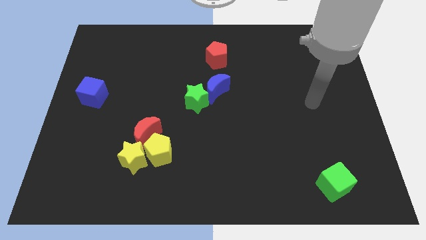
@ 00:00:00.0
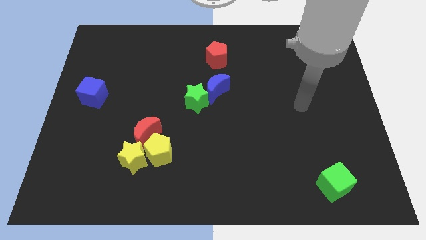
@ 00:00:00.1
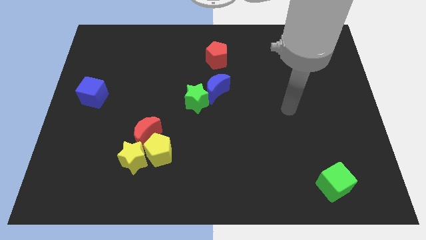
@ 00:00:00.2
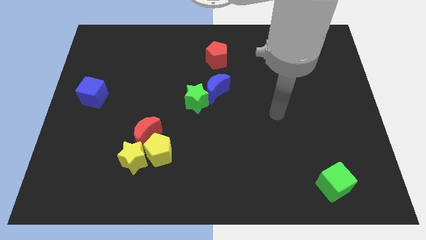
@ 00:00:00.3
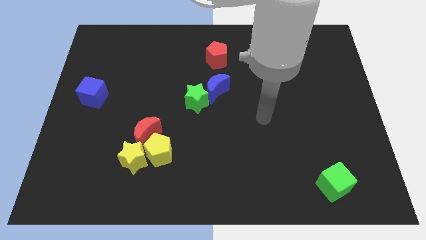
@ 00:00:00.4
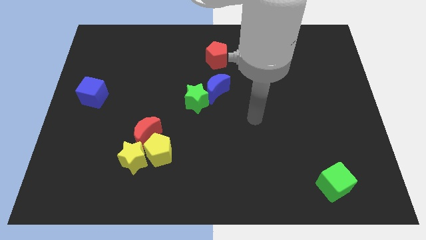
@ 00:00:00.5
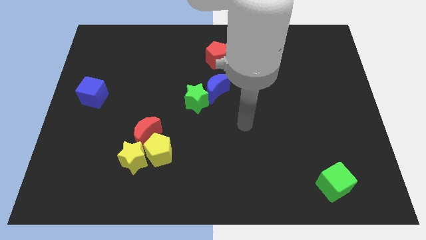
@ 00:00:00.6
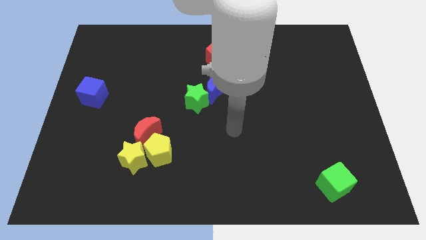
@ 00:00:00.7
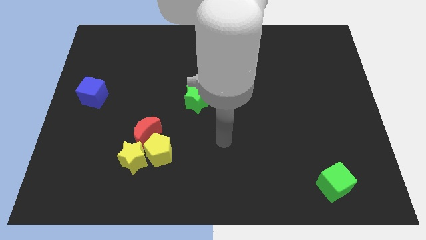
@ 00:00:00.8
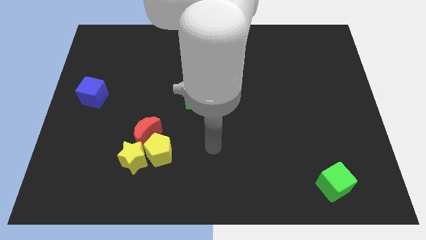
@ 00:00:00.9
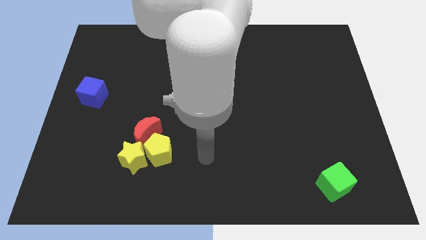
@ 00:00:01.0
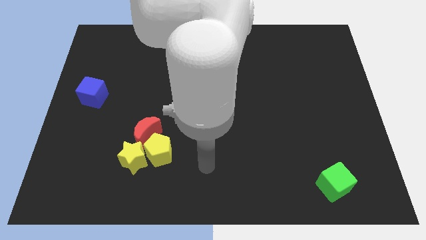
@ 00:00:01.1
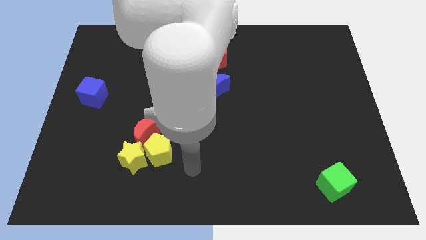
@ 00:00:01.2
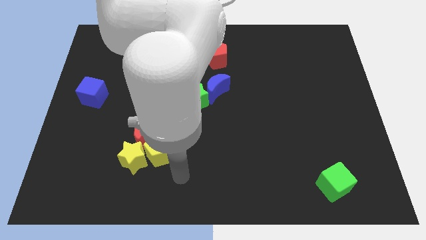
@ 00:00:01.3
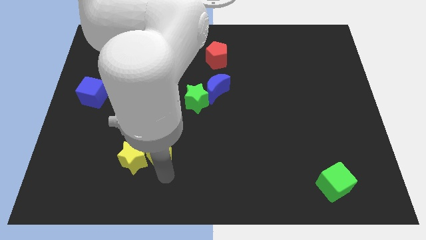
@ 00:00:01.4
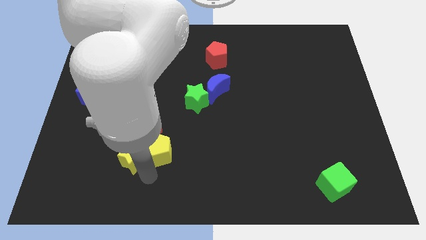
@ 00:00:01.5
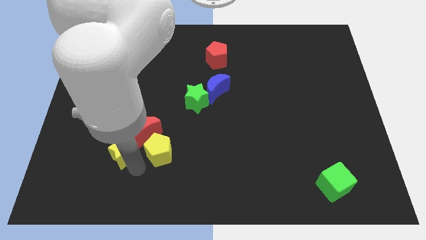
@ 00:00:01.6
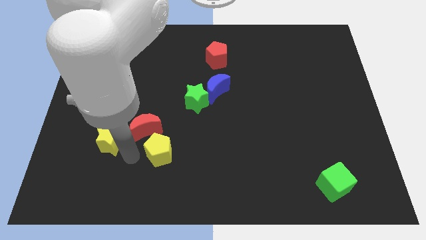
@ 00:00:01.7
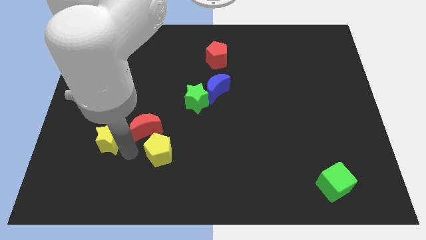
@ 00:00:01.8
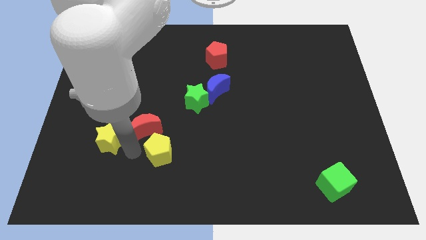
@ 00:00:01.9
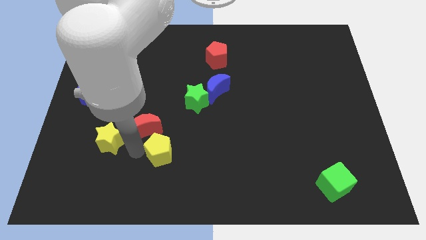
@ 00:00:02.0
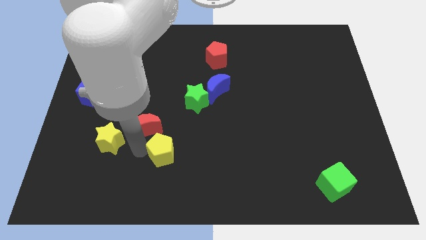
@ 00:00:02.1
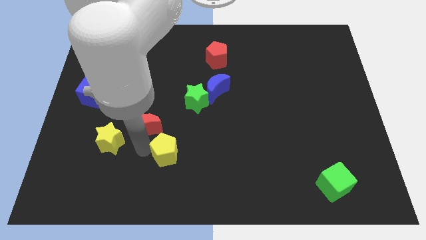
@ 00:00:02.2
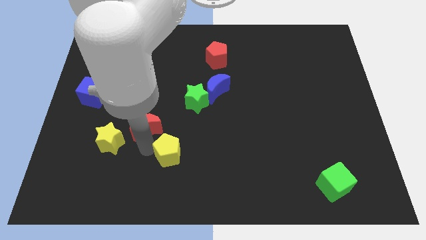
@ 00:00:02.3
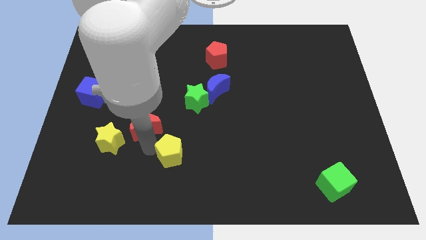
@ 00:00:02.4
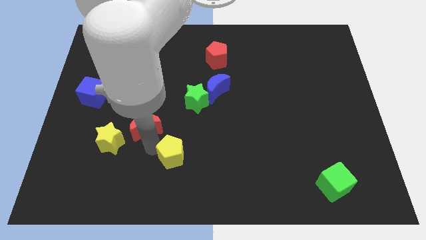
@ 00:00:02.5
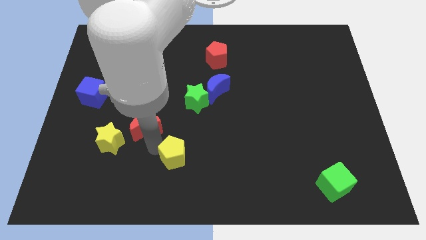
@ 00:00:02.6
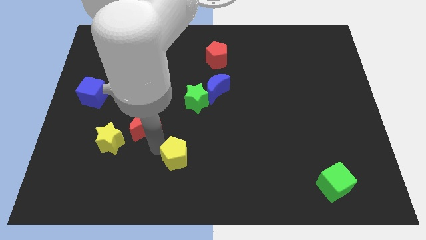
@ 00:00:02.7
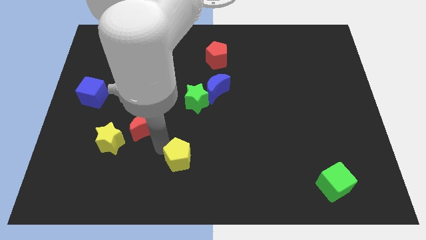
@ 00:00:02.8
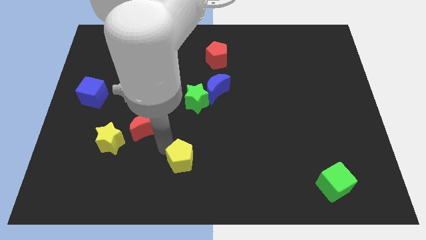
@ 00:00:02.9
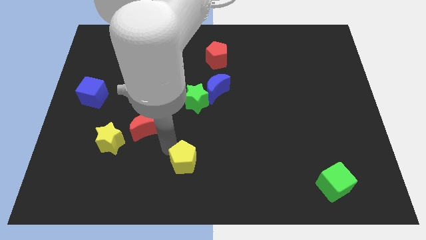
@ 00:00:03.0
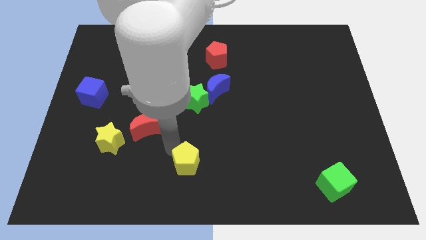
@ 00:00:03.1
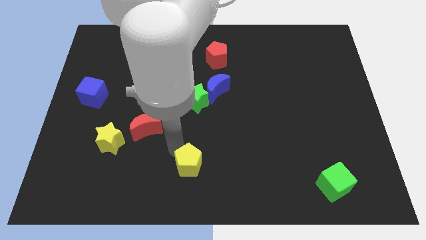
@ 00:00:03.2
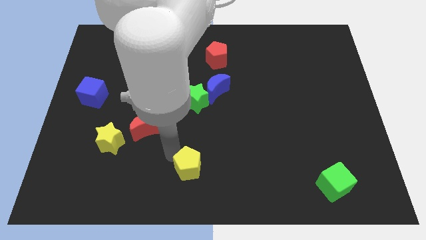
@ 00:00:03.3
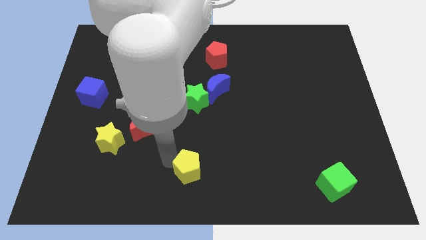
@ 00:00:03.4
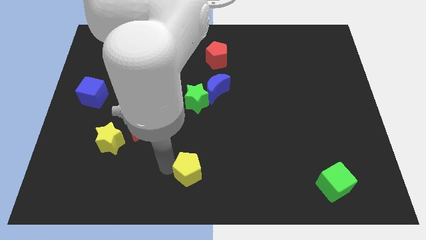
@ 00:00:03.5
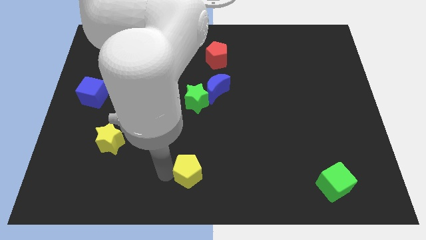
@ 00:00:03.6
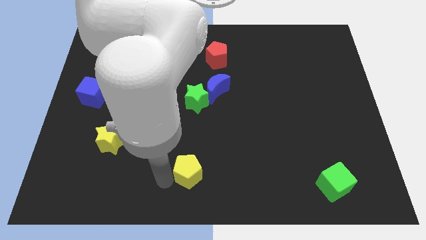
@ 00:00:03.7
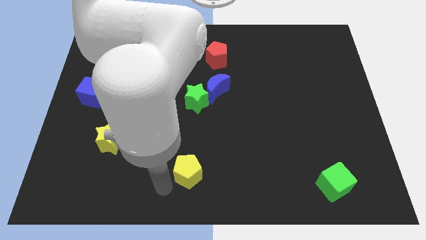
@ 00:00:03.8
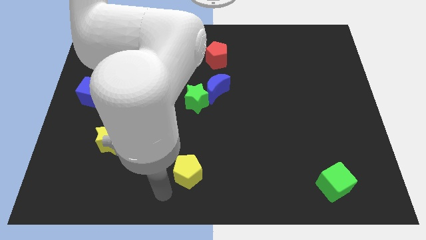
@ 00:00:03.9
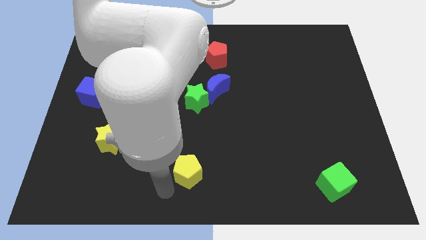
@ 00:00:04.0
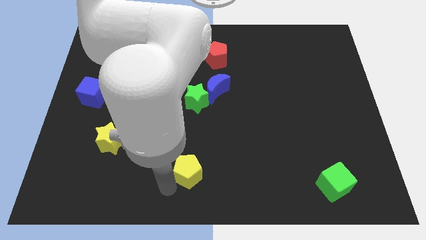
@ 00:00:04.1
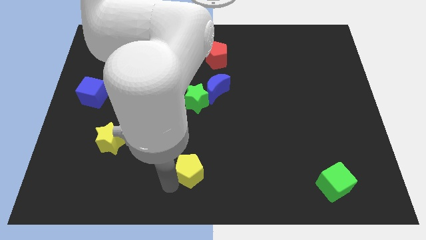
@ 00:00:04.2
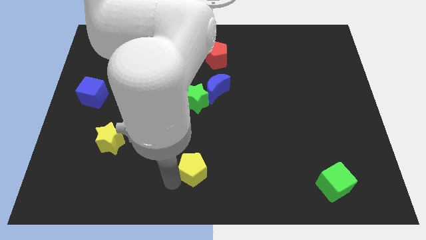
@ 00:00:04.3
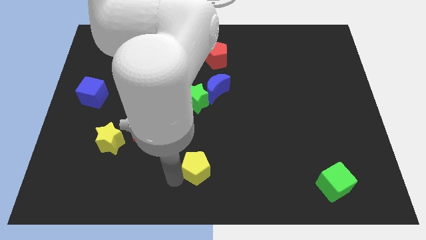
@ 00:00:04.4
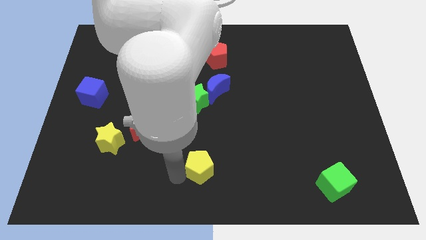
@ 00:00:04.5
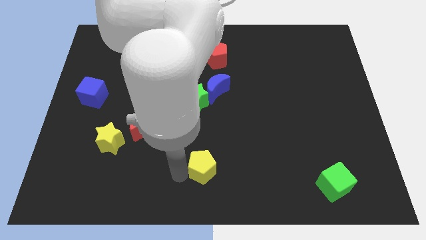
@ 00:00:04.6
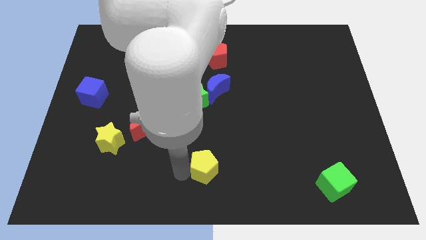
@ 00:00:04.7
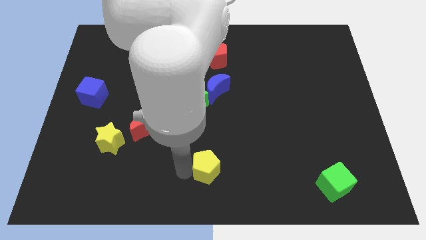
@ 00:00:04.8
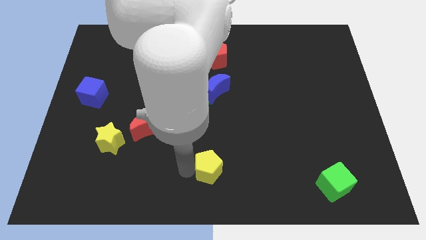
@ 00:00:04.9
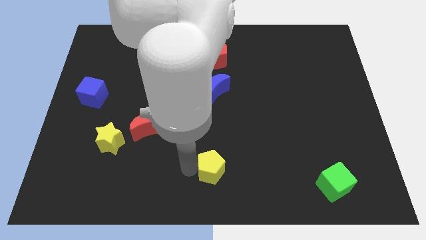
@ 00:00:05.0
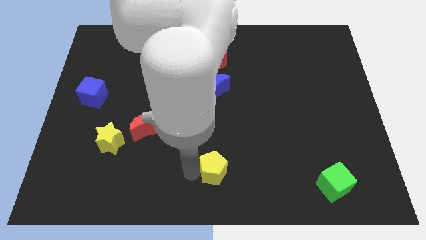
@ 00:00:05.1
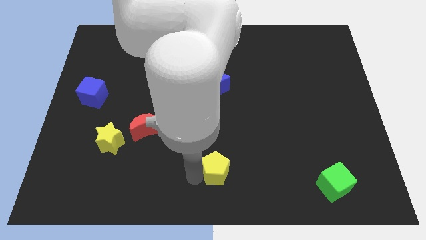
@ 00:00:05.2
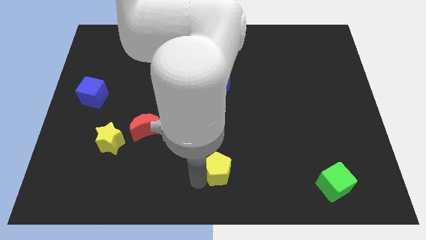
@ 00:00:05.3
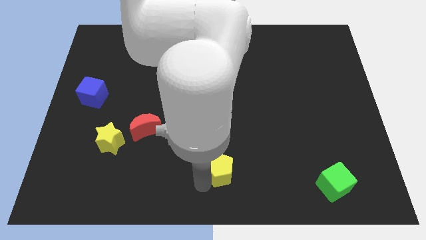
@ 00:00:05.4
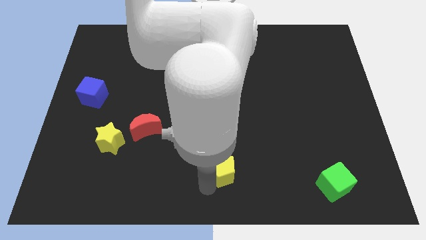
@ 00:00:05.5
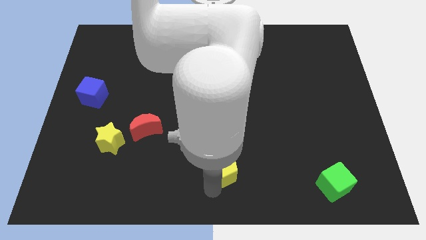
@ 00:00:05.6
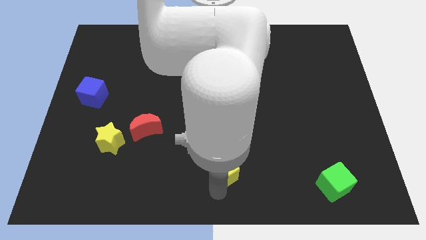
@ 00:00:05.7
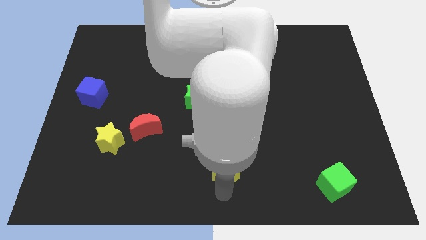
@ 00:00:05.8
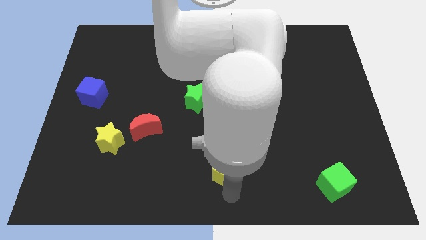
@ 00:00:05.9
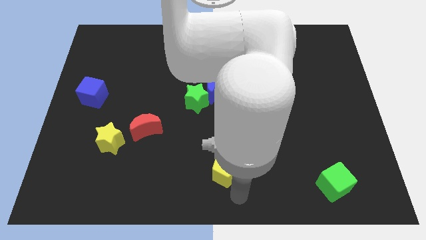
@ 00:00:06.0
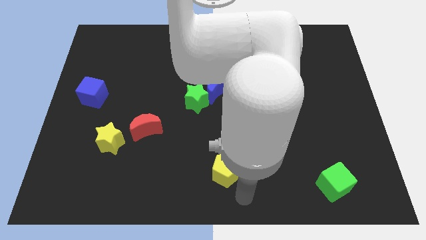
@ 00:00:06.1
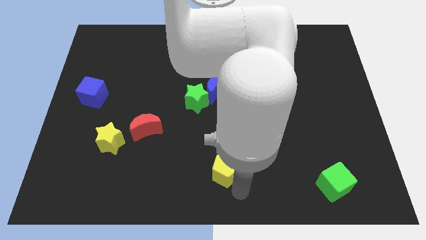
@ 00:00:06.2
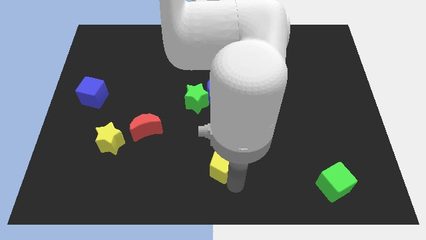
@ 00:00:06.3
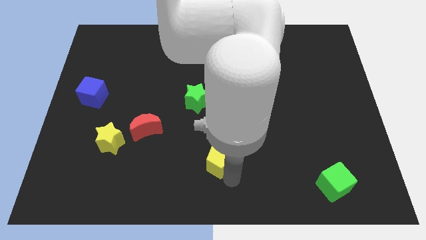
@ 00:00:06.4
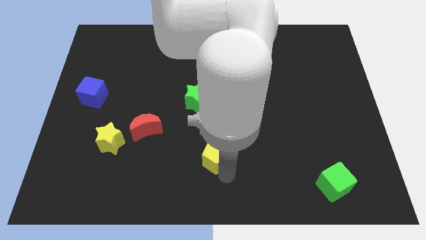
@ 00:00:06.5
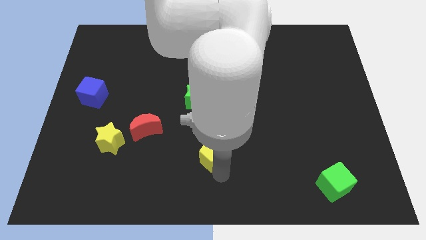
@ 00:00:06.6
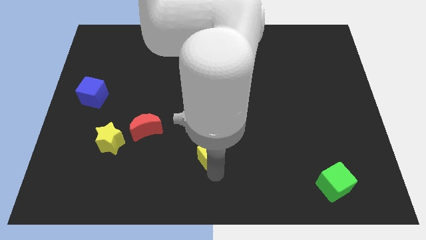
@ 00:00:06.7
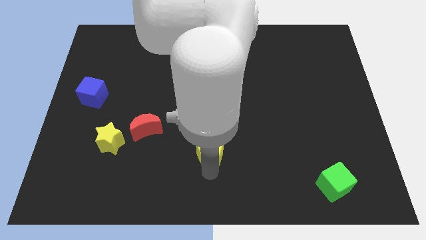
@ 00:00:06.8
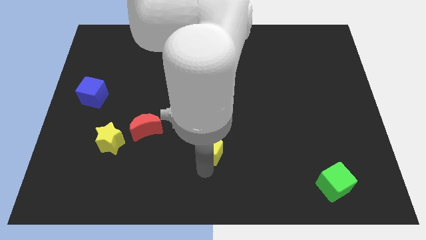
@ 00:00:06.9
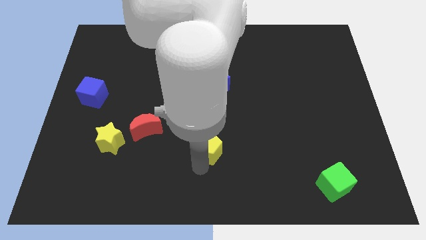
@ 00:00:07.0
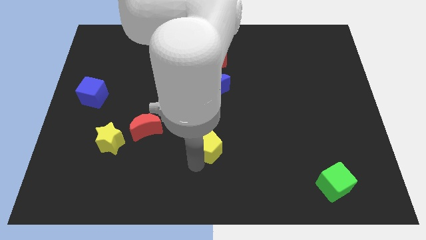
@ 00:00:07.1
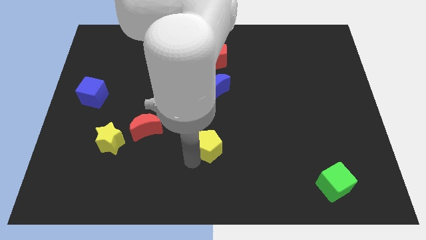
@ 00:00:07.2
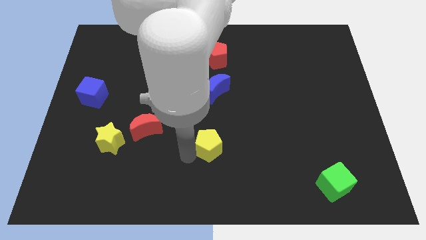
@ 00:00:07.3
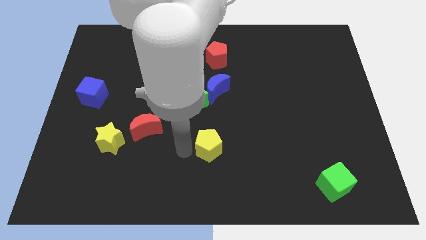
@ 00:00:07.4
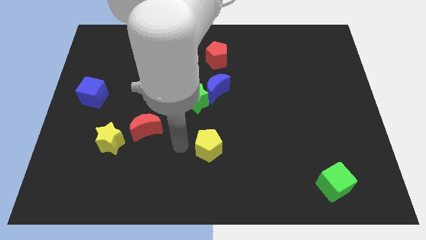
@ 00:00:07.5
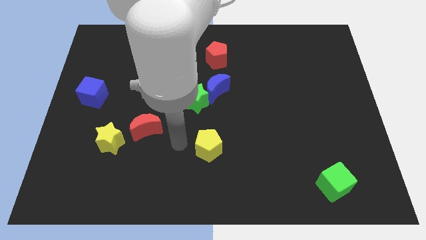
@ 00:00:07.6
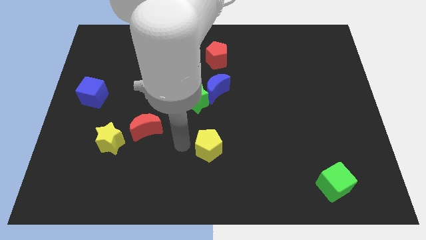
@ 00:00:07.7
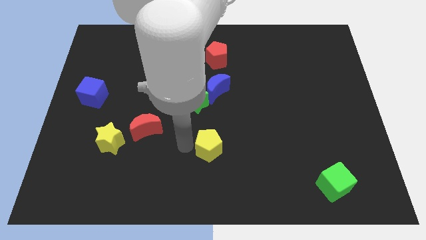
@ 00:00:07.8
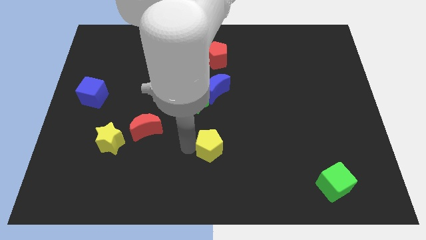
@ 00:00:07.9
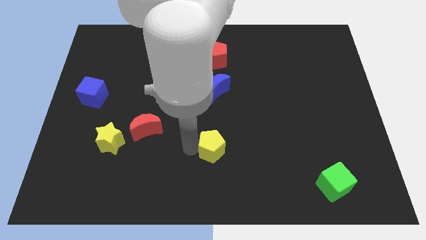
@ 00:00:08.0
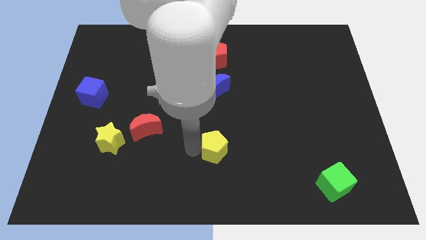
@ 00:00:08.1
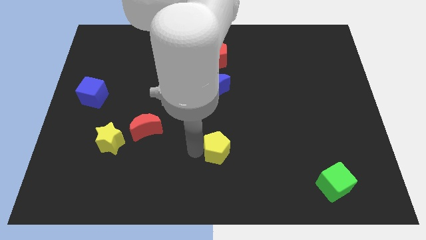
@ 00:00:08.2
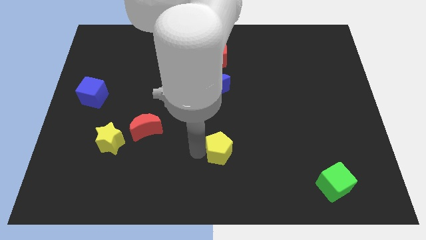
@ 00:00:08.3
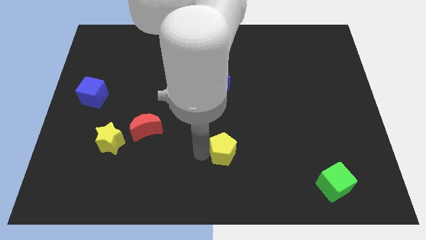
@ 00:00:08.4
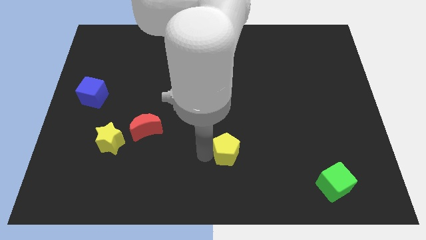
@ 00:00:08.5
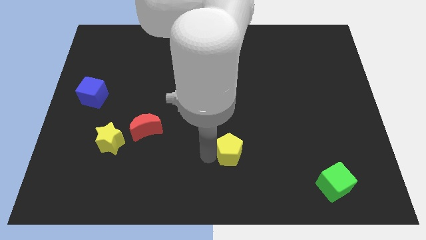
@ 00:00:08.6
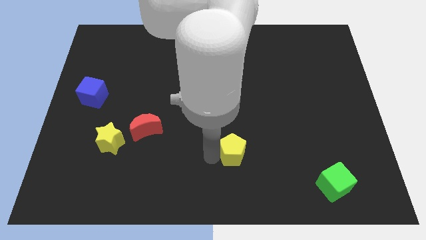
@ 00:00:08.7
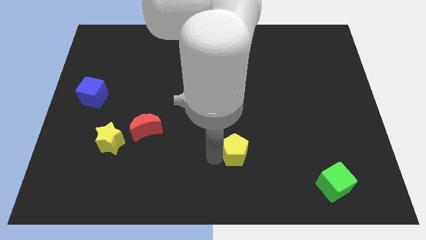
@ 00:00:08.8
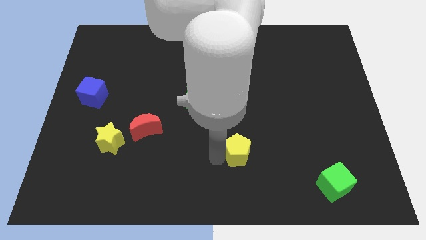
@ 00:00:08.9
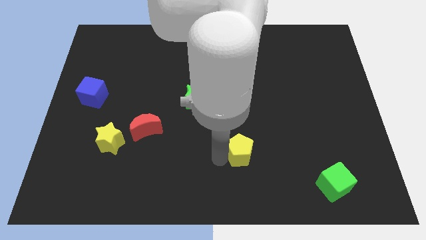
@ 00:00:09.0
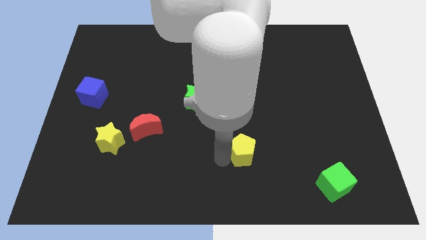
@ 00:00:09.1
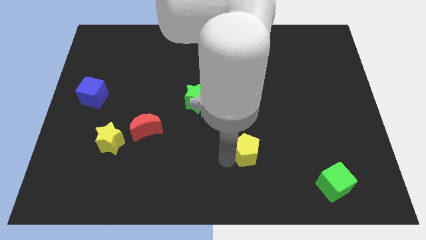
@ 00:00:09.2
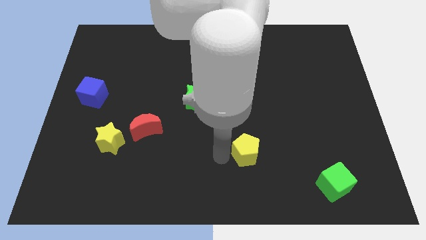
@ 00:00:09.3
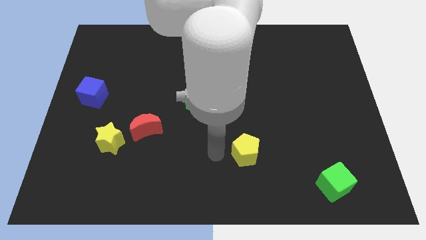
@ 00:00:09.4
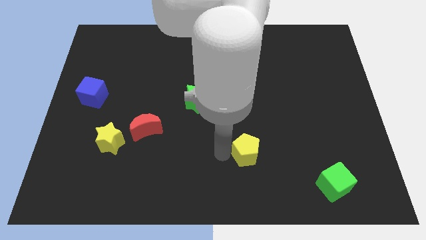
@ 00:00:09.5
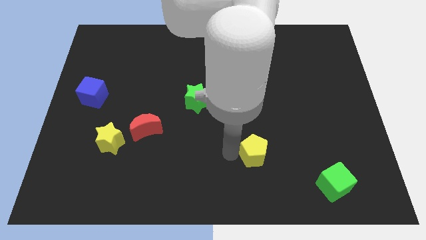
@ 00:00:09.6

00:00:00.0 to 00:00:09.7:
slide the yellow pentagon to the right